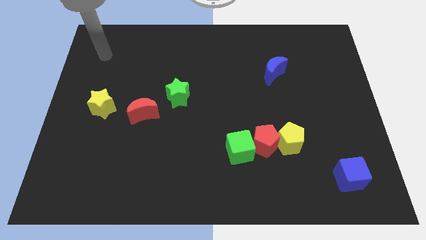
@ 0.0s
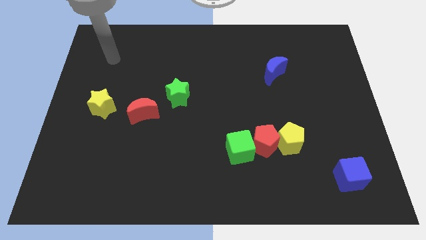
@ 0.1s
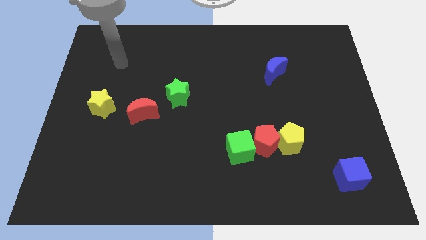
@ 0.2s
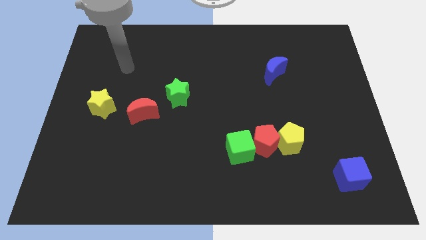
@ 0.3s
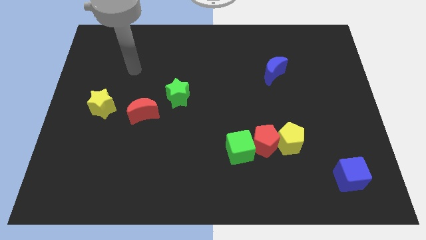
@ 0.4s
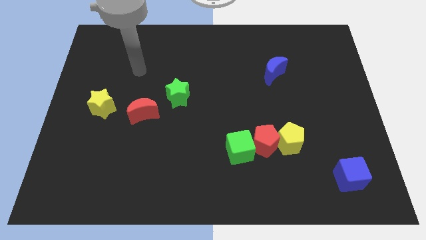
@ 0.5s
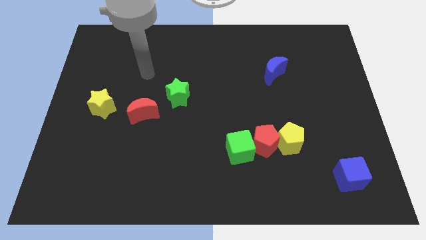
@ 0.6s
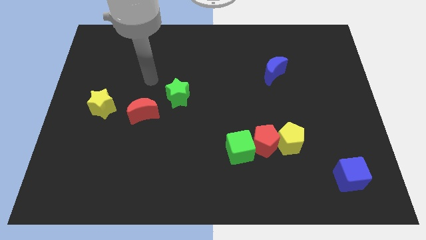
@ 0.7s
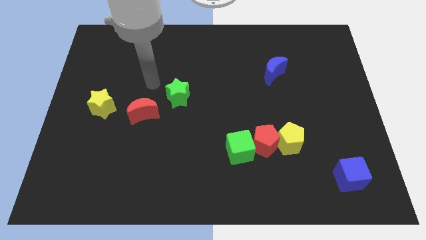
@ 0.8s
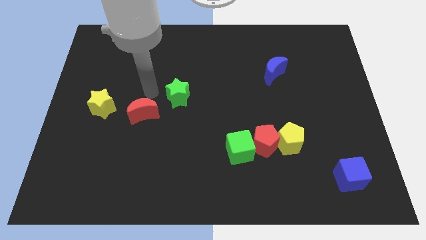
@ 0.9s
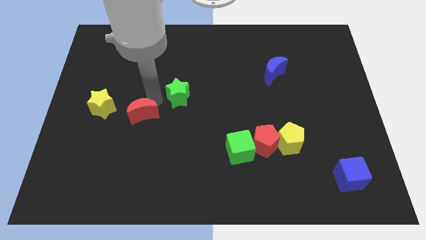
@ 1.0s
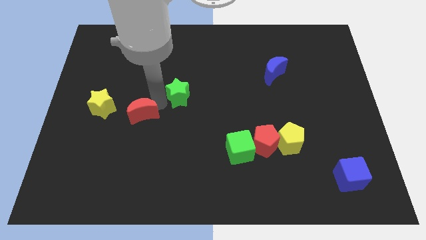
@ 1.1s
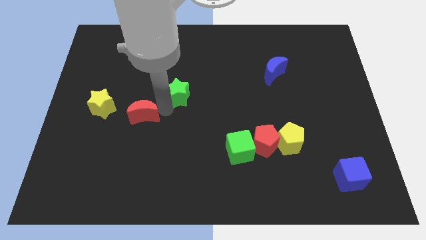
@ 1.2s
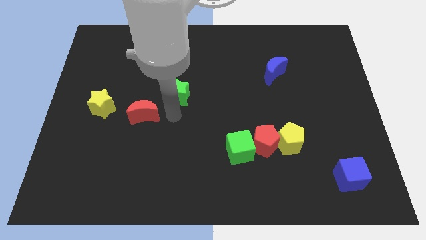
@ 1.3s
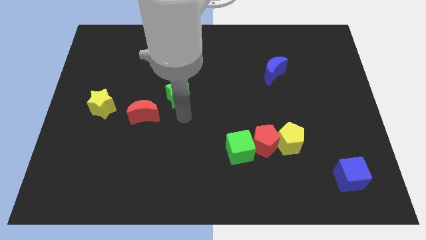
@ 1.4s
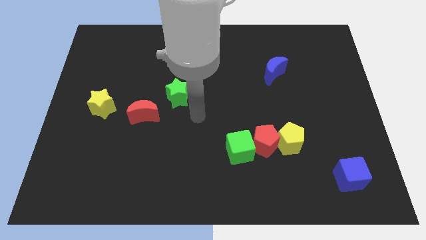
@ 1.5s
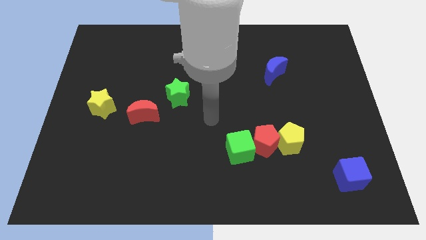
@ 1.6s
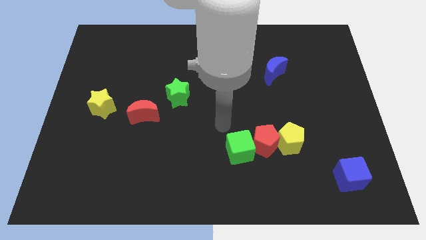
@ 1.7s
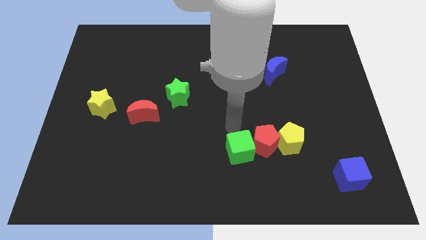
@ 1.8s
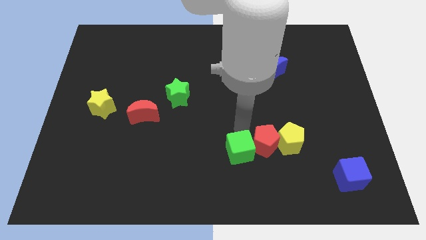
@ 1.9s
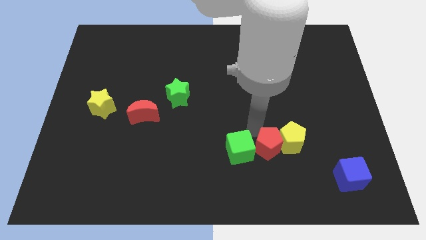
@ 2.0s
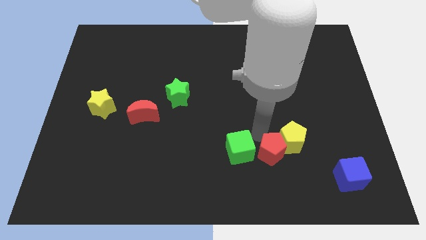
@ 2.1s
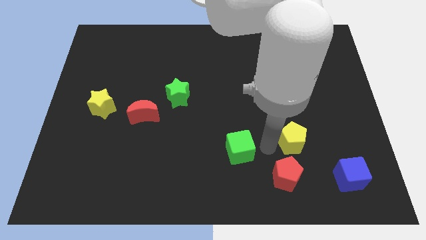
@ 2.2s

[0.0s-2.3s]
pull the green cube apart from the red pentagon

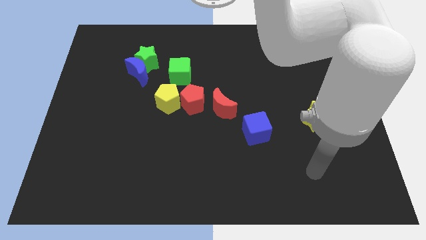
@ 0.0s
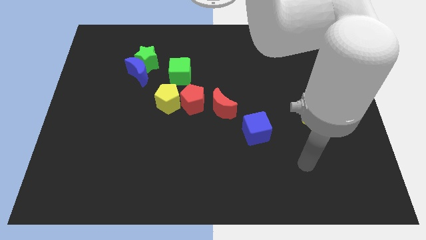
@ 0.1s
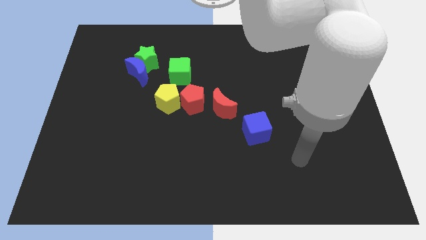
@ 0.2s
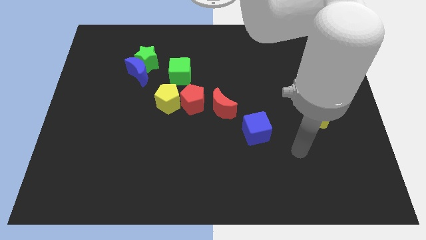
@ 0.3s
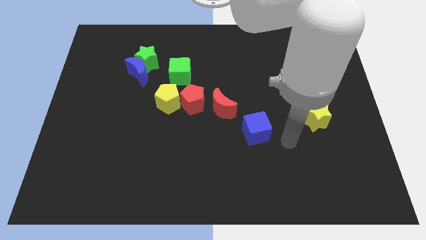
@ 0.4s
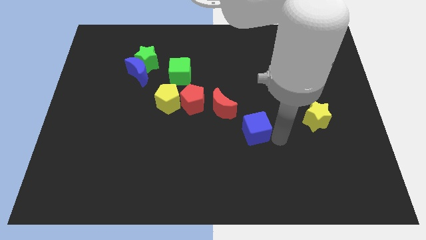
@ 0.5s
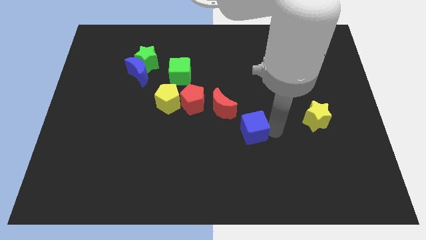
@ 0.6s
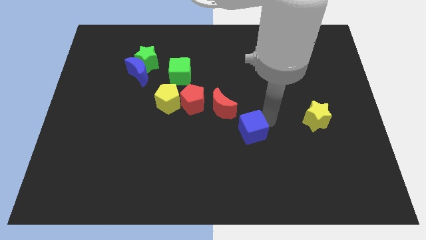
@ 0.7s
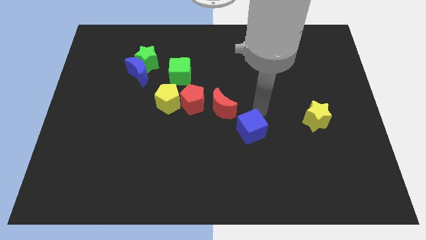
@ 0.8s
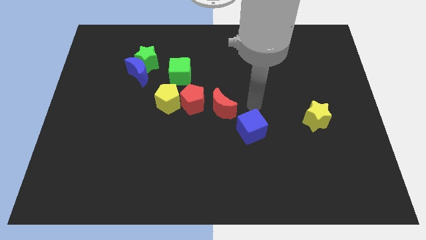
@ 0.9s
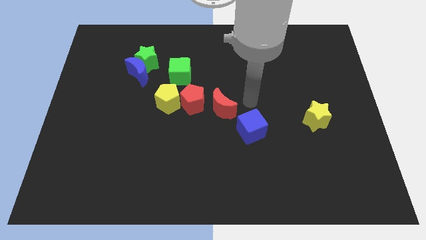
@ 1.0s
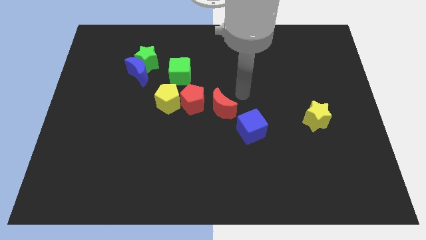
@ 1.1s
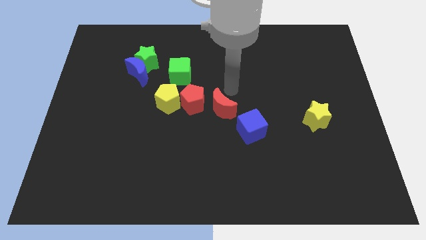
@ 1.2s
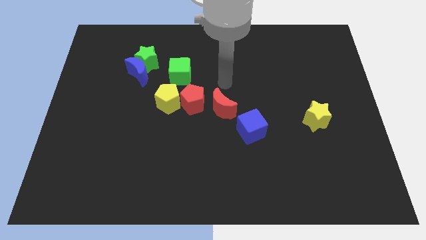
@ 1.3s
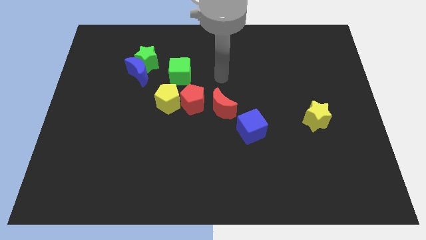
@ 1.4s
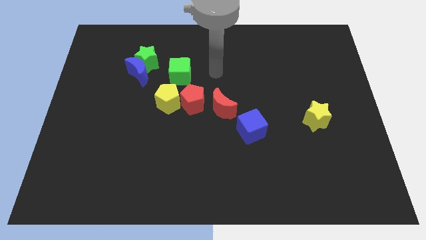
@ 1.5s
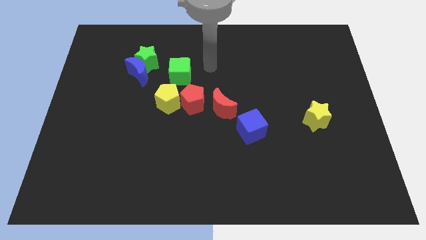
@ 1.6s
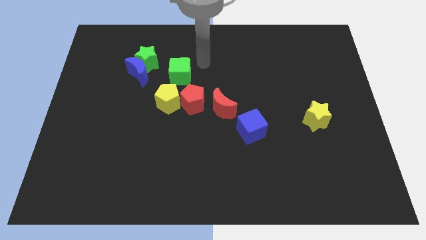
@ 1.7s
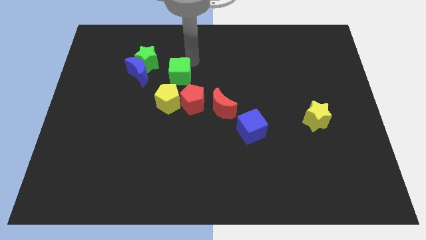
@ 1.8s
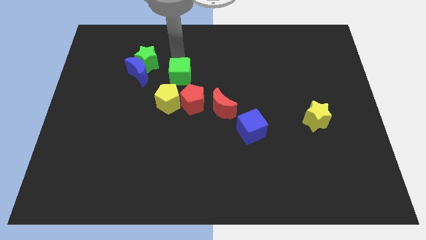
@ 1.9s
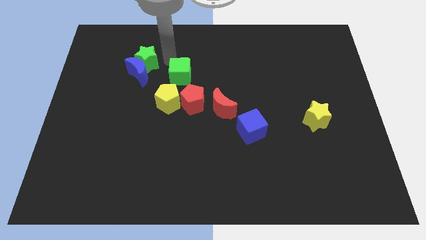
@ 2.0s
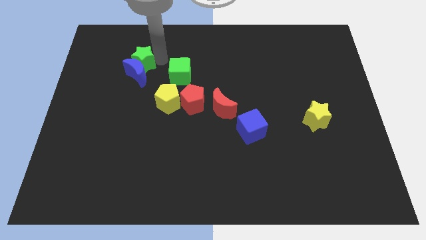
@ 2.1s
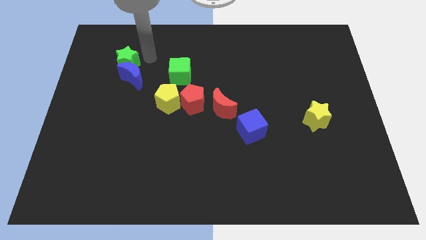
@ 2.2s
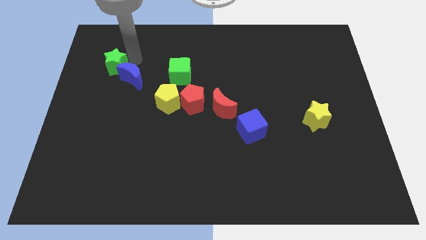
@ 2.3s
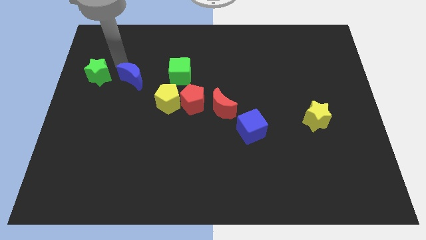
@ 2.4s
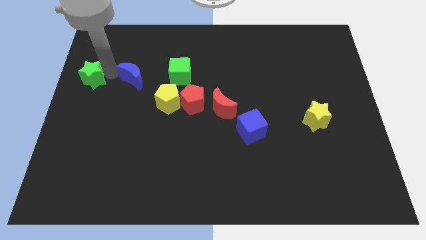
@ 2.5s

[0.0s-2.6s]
move the blue moon away from the green star

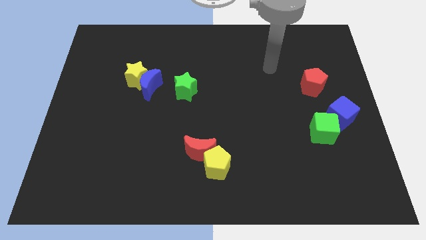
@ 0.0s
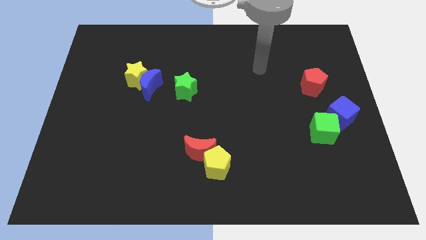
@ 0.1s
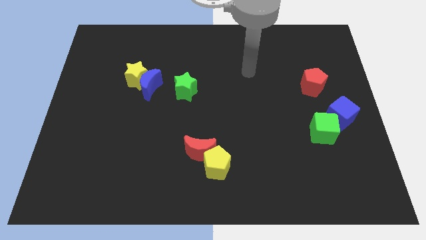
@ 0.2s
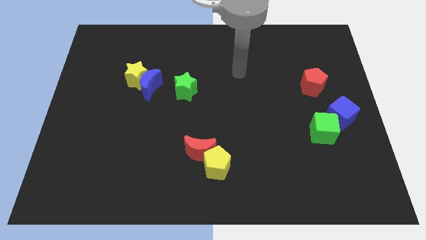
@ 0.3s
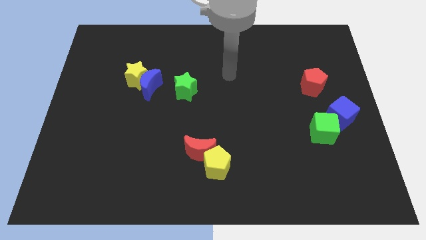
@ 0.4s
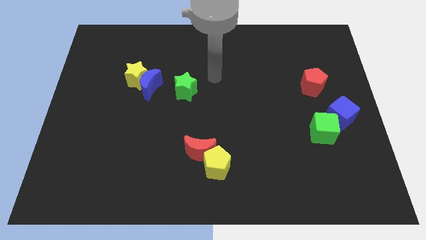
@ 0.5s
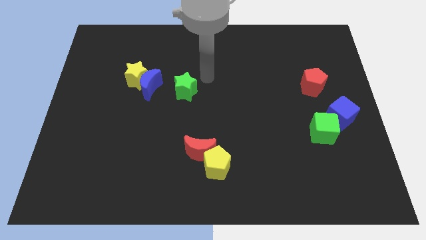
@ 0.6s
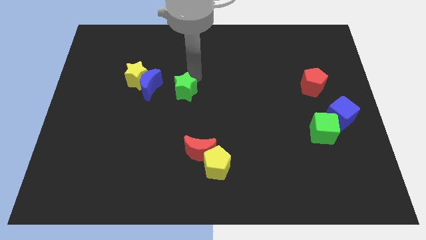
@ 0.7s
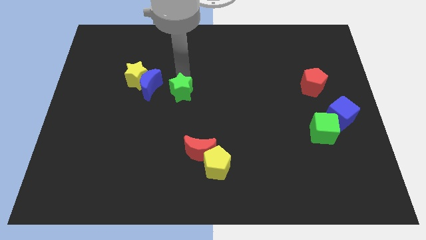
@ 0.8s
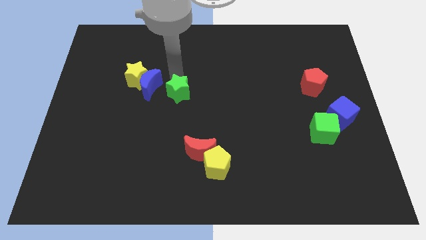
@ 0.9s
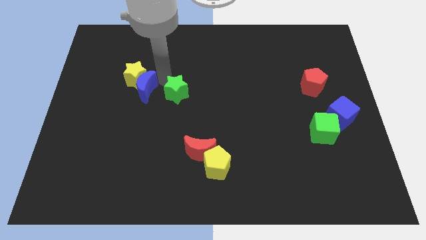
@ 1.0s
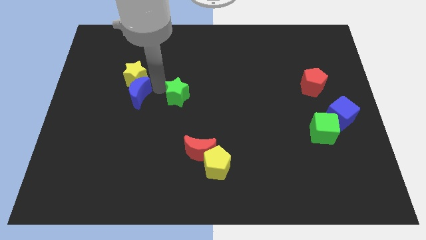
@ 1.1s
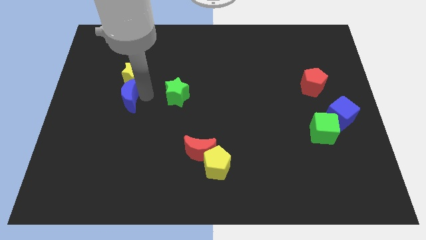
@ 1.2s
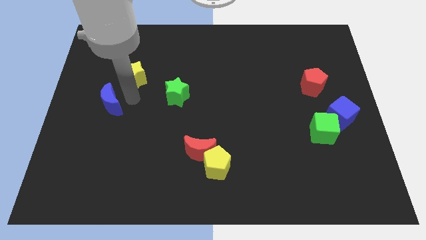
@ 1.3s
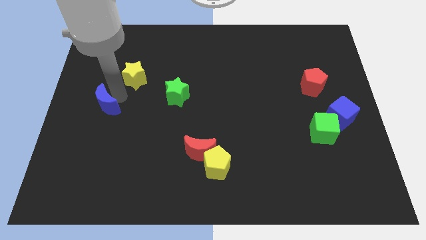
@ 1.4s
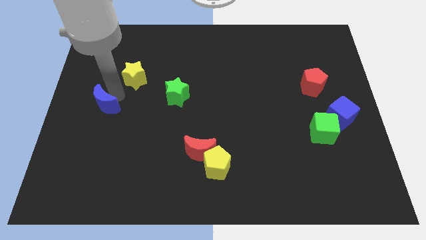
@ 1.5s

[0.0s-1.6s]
pull the yellow star apart from the blue moon

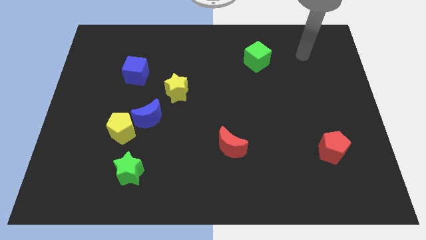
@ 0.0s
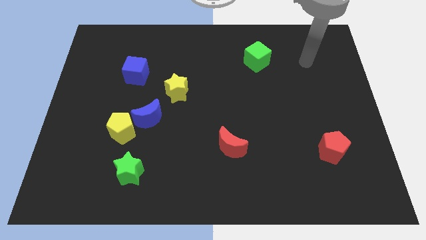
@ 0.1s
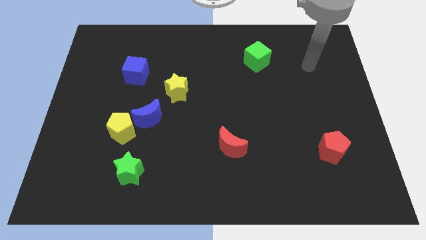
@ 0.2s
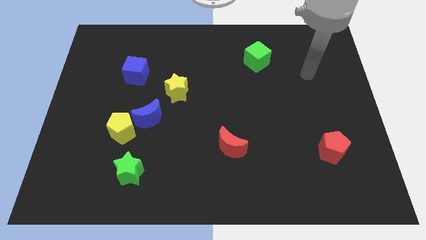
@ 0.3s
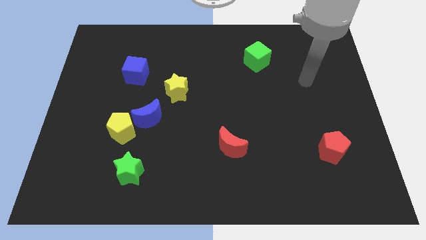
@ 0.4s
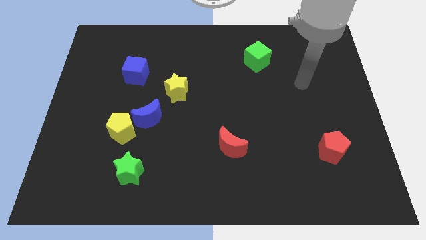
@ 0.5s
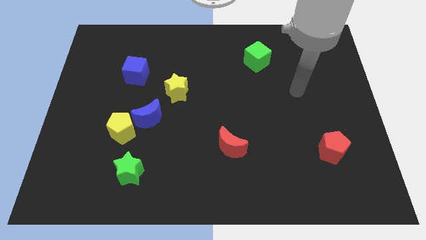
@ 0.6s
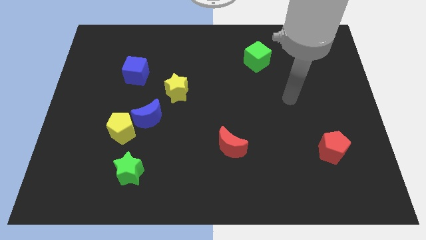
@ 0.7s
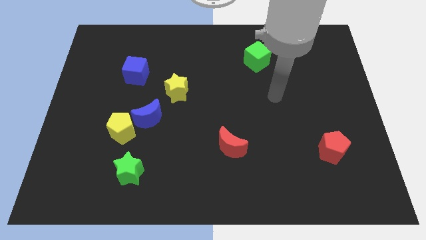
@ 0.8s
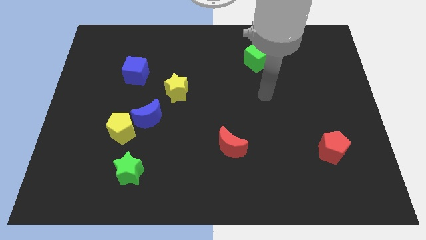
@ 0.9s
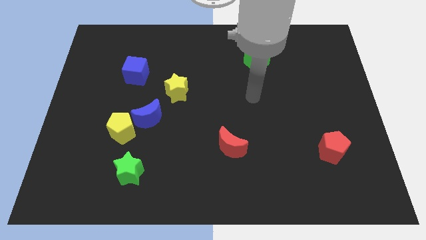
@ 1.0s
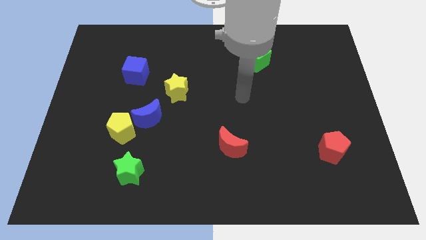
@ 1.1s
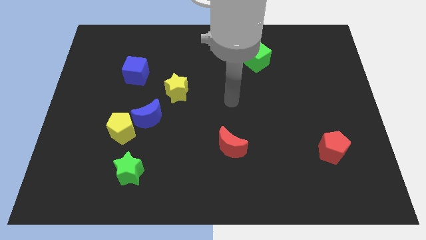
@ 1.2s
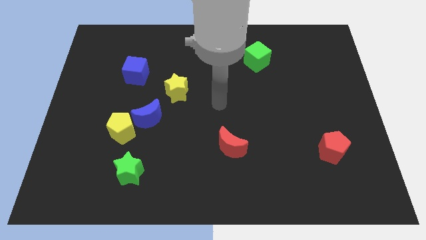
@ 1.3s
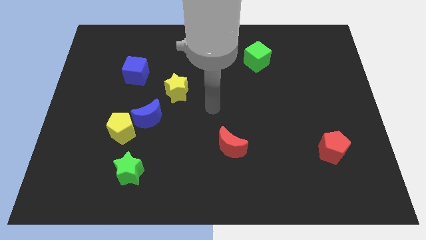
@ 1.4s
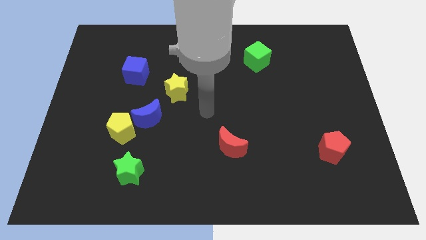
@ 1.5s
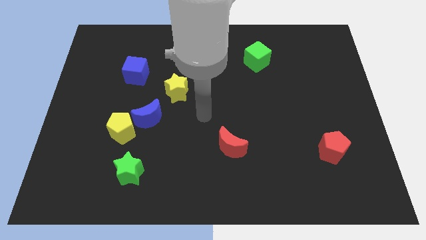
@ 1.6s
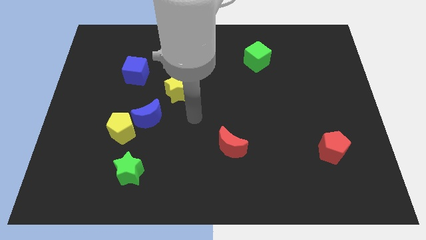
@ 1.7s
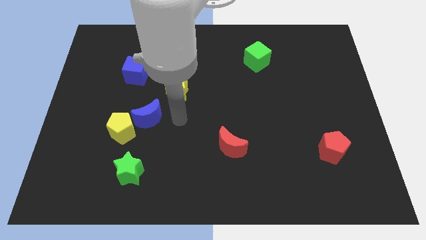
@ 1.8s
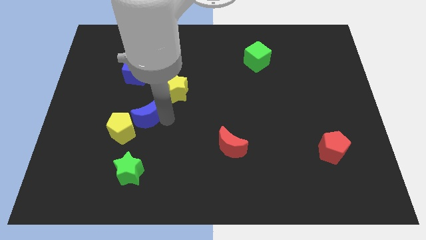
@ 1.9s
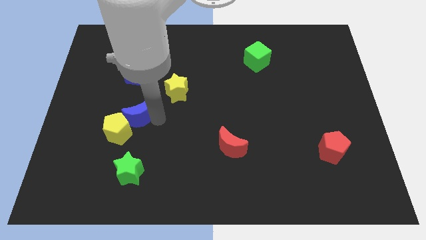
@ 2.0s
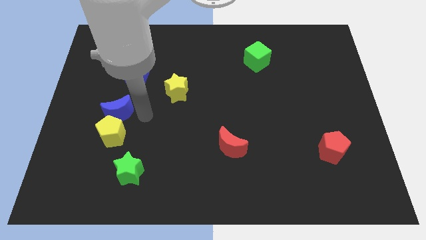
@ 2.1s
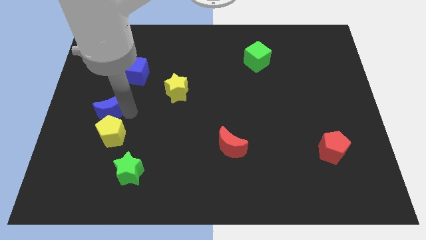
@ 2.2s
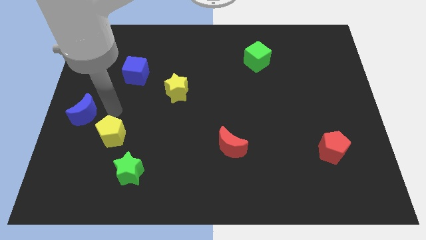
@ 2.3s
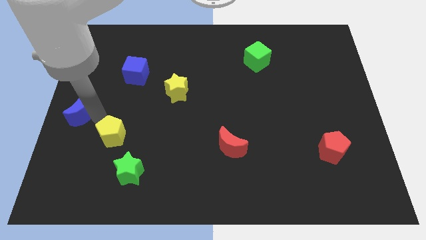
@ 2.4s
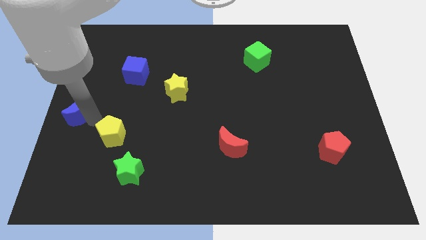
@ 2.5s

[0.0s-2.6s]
separate the yellow pentagon from the blue moon
